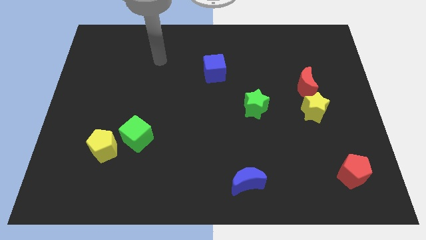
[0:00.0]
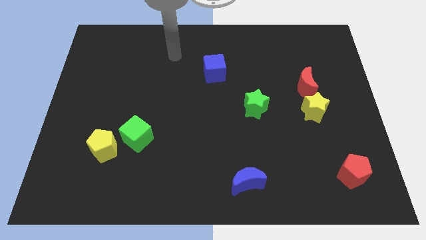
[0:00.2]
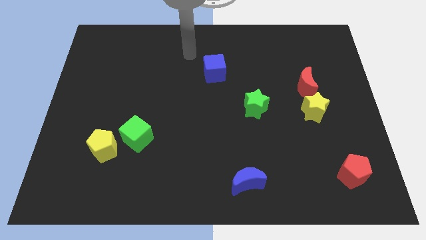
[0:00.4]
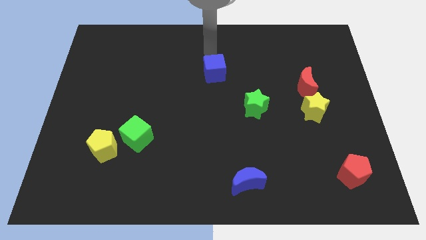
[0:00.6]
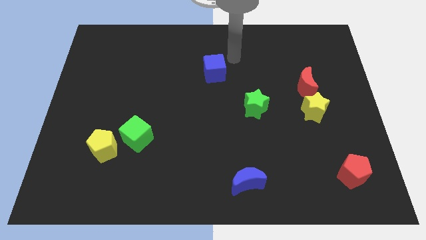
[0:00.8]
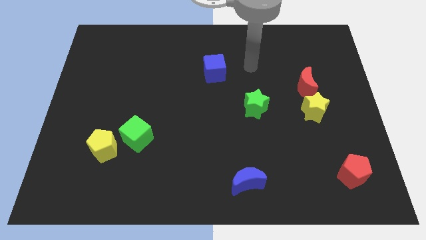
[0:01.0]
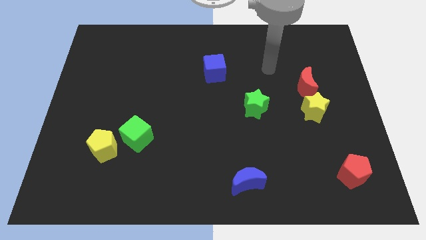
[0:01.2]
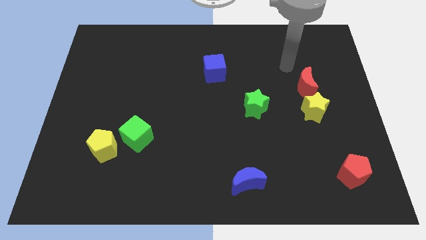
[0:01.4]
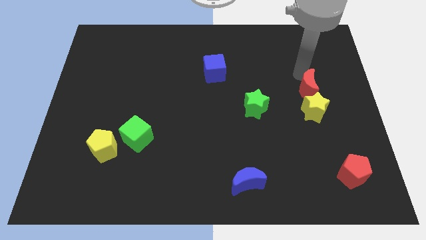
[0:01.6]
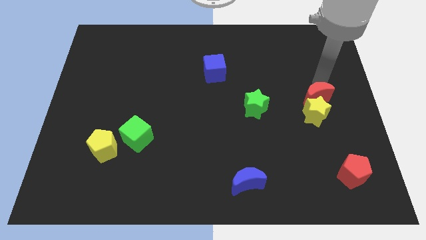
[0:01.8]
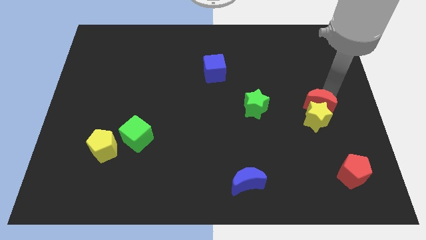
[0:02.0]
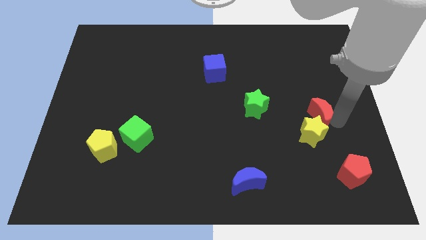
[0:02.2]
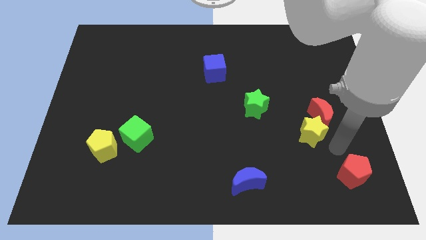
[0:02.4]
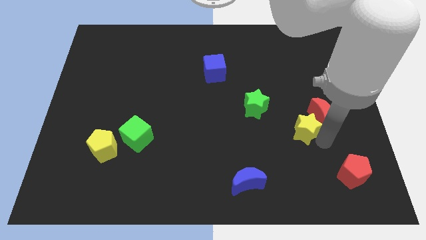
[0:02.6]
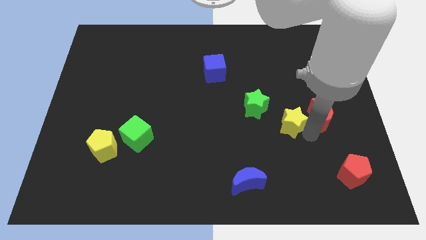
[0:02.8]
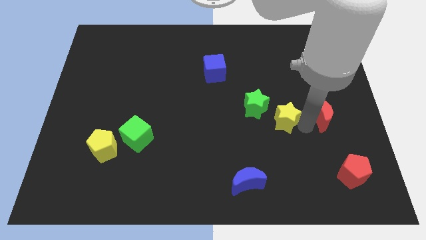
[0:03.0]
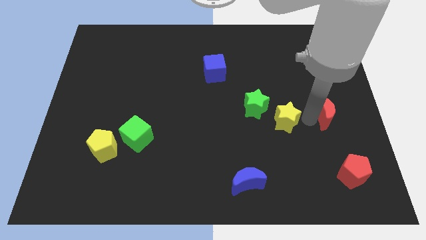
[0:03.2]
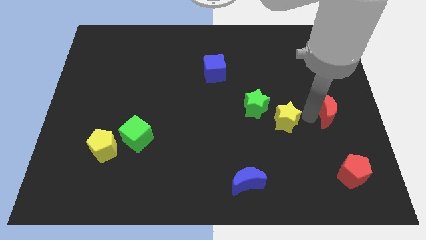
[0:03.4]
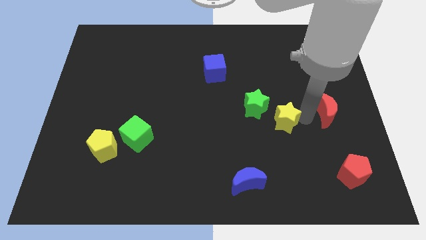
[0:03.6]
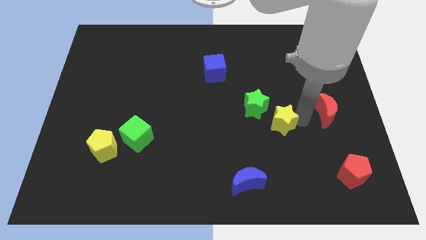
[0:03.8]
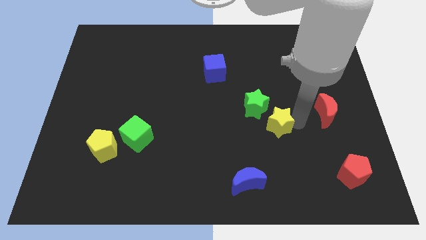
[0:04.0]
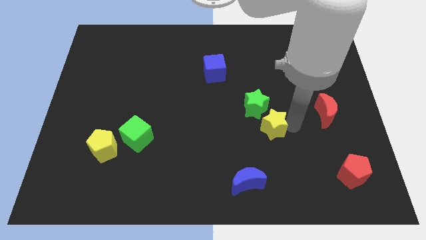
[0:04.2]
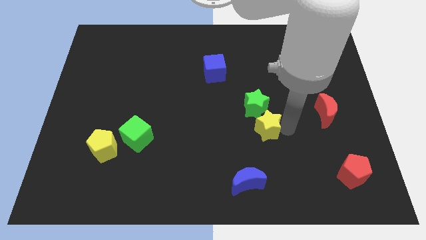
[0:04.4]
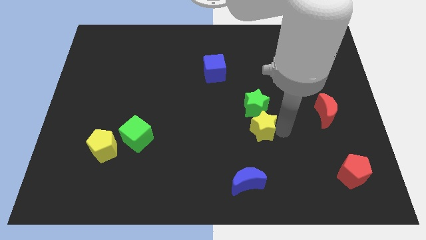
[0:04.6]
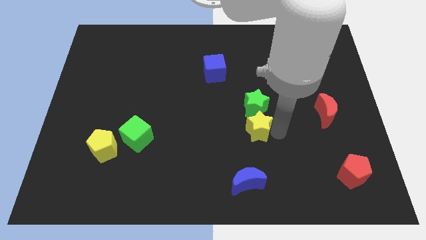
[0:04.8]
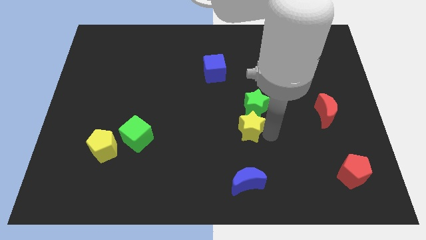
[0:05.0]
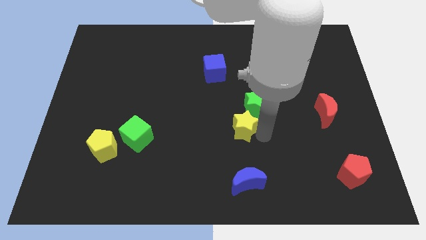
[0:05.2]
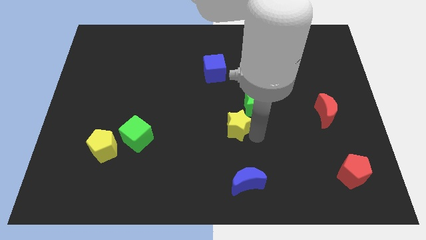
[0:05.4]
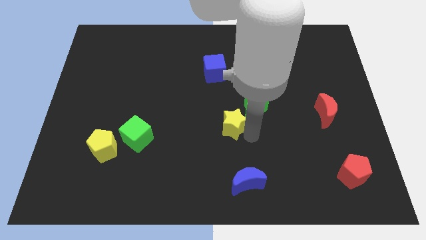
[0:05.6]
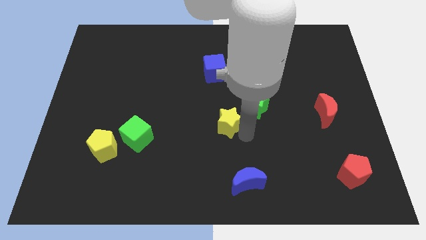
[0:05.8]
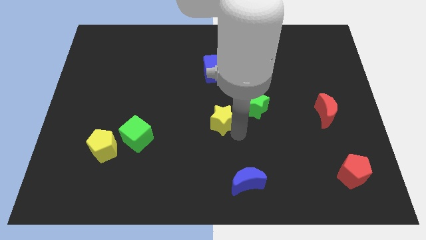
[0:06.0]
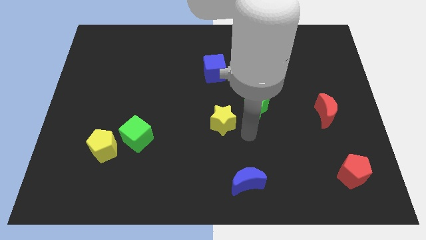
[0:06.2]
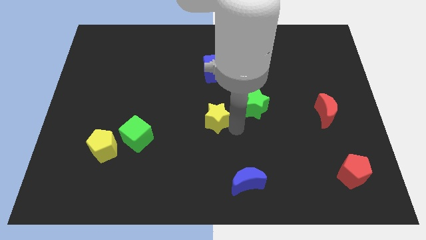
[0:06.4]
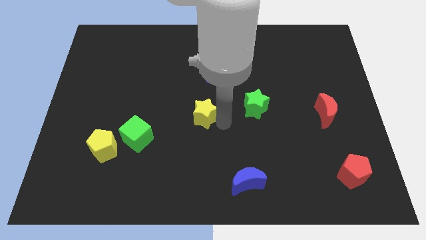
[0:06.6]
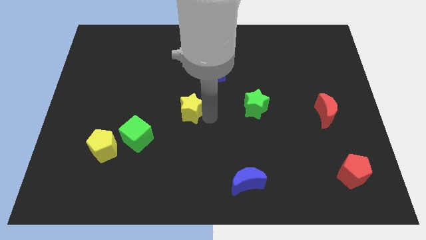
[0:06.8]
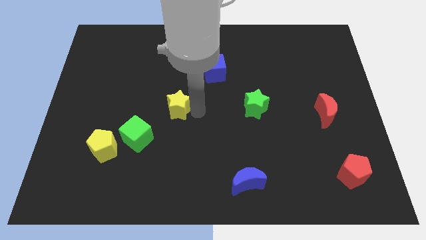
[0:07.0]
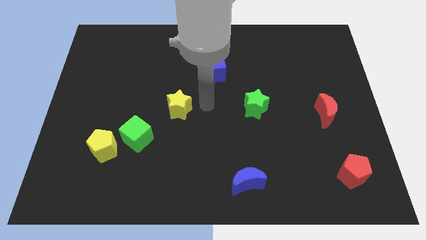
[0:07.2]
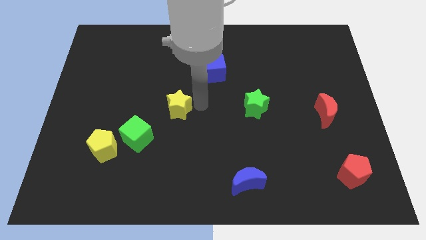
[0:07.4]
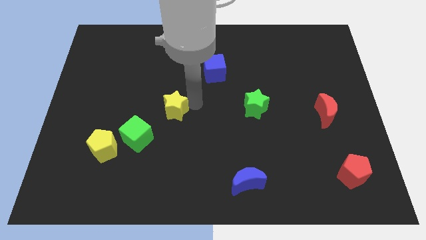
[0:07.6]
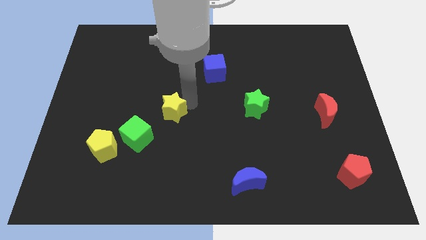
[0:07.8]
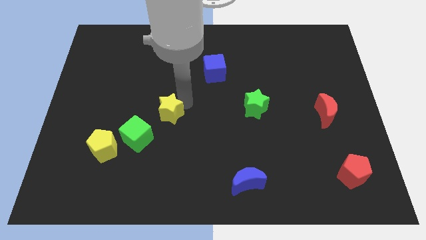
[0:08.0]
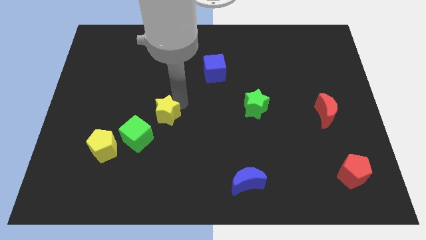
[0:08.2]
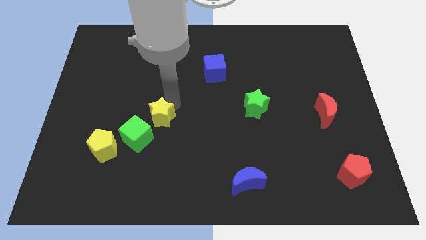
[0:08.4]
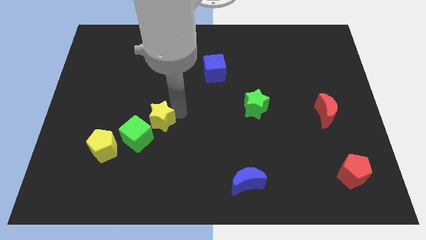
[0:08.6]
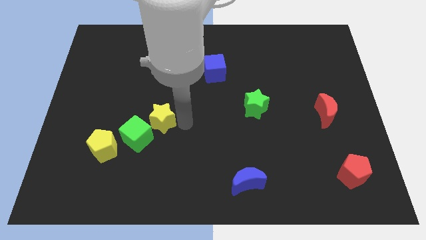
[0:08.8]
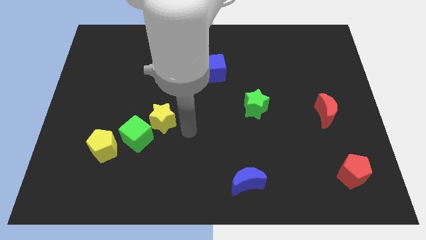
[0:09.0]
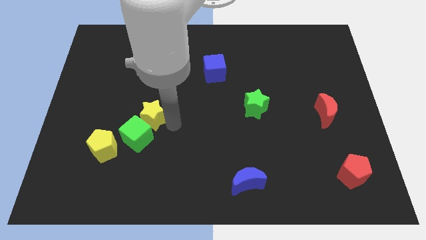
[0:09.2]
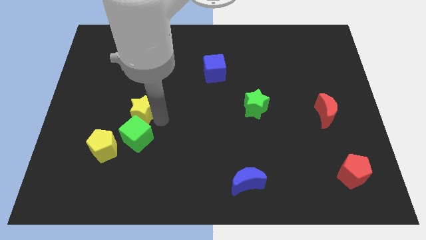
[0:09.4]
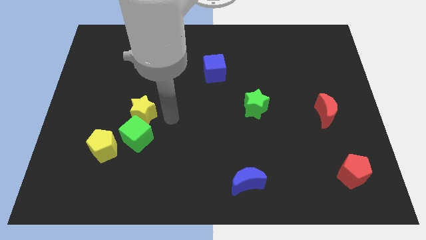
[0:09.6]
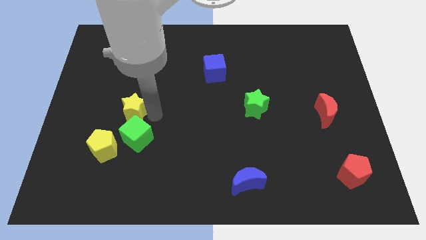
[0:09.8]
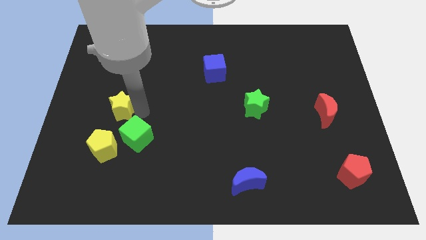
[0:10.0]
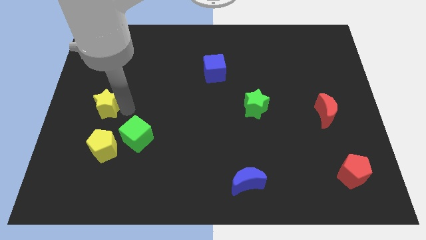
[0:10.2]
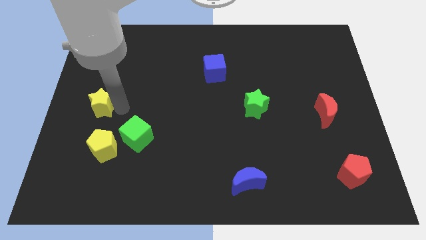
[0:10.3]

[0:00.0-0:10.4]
put the yellow star to the center left
